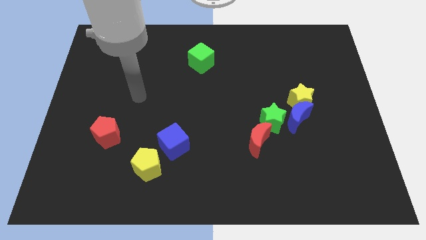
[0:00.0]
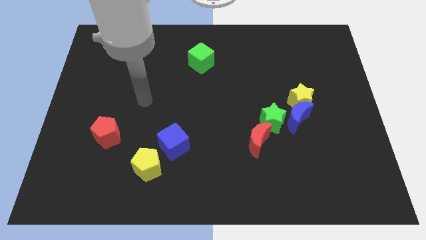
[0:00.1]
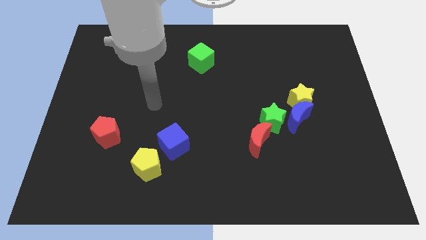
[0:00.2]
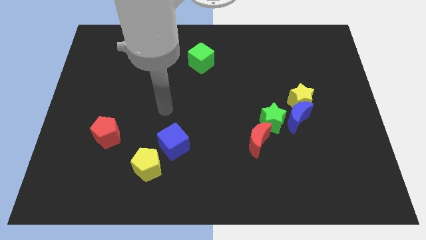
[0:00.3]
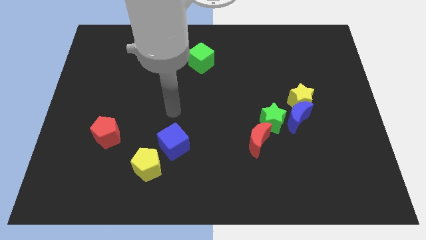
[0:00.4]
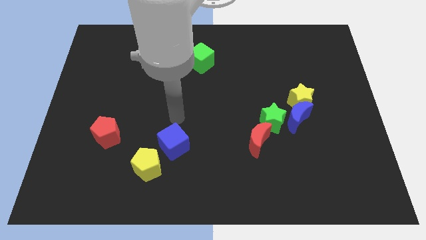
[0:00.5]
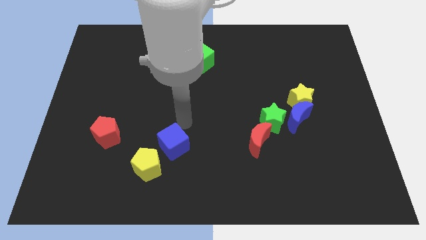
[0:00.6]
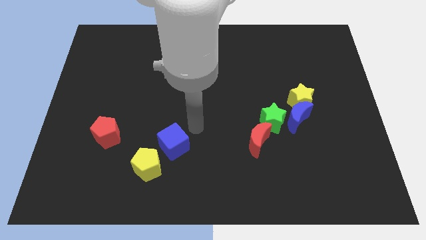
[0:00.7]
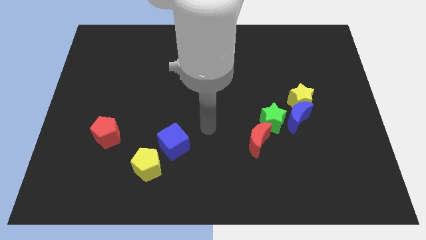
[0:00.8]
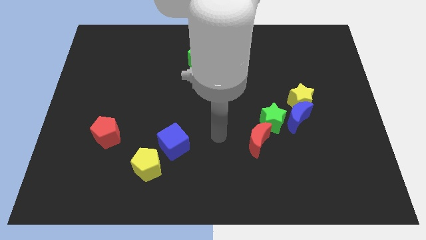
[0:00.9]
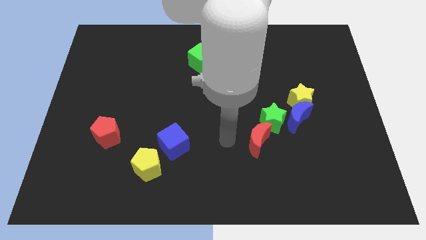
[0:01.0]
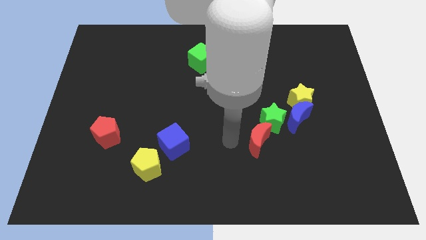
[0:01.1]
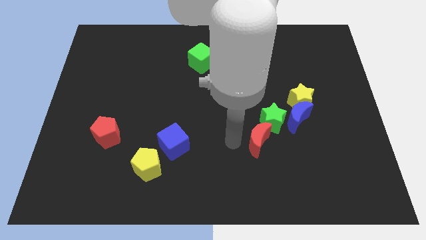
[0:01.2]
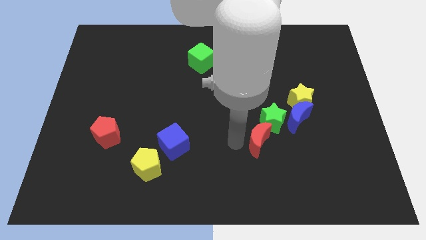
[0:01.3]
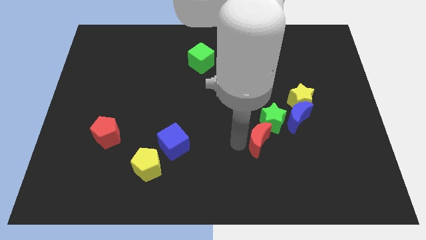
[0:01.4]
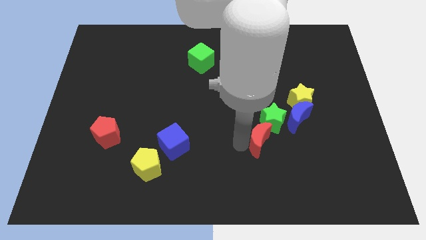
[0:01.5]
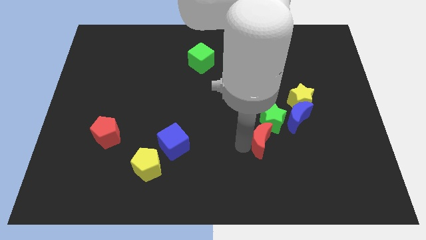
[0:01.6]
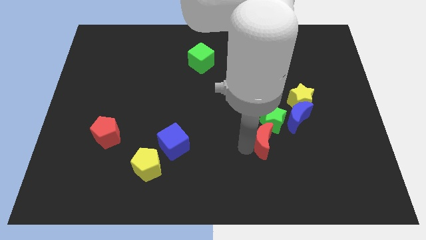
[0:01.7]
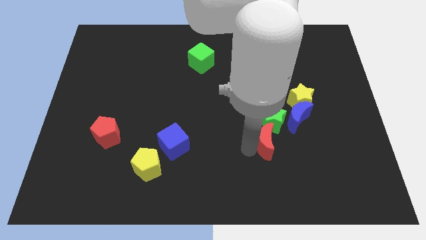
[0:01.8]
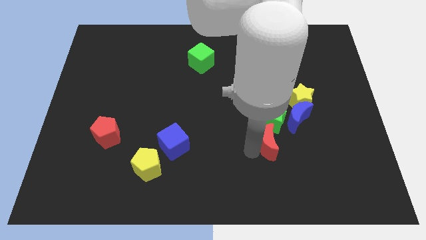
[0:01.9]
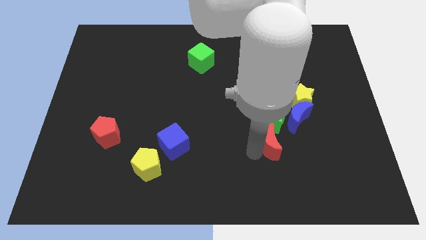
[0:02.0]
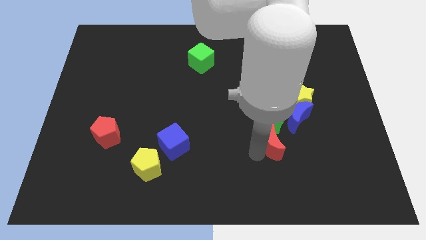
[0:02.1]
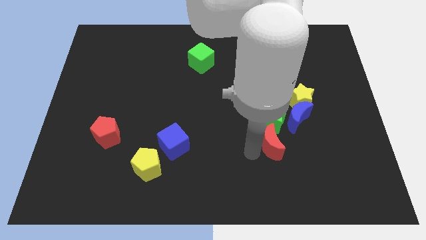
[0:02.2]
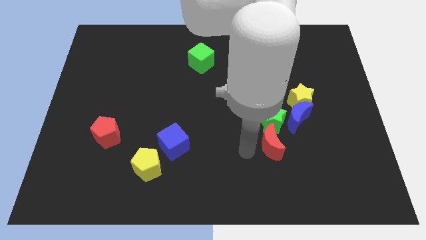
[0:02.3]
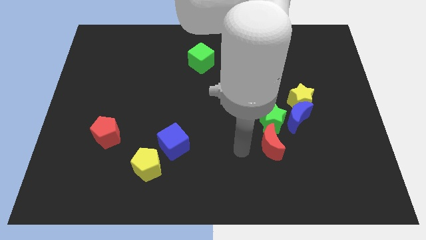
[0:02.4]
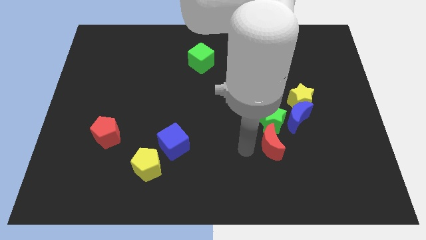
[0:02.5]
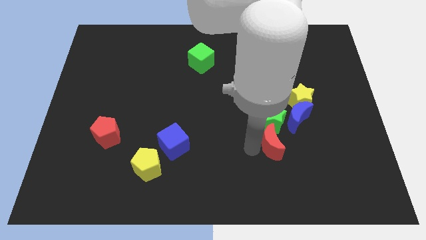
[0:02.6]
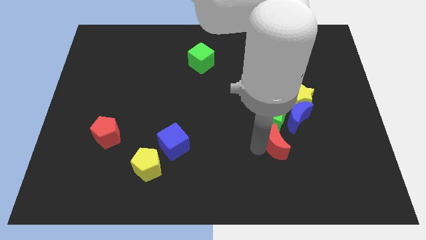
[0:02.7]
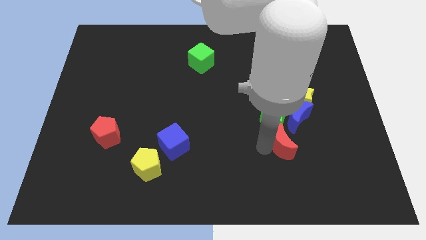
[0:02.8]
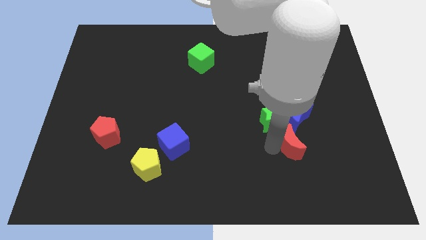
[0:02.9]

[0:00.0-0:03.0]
push the red moon right somewhat

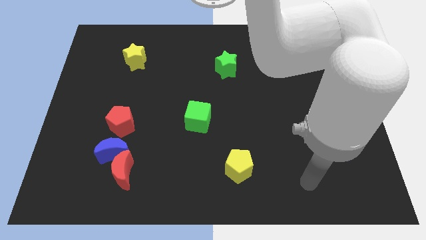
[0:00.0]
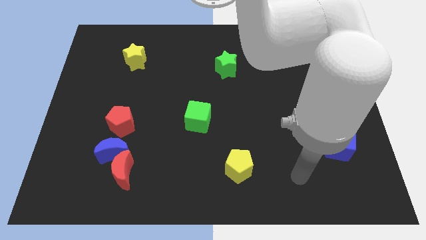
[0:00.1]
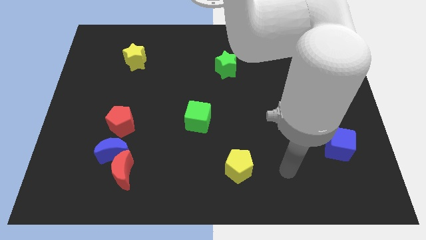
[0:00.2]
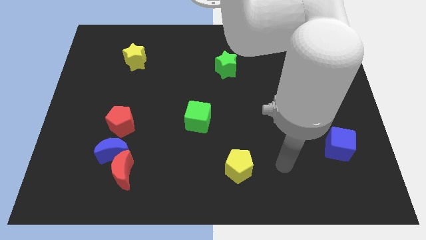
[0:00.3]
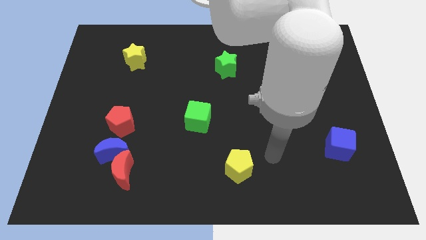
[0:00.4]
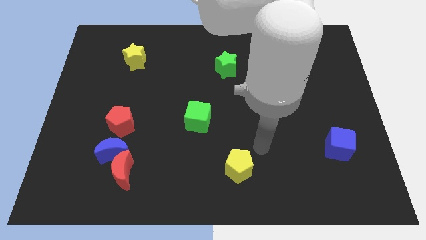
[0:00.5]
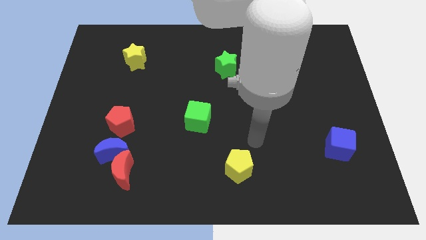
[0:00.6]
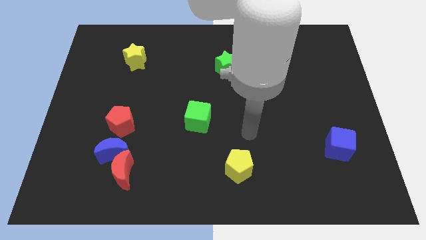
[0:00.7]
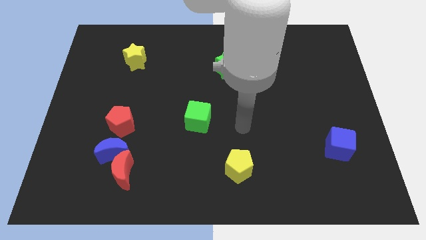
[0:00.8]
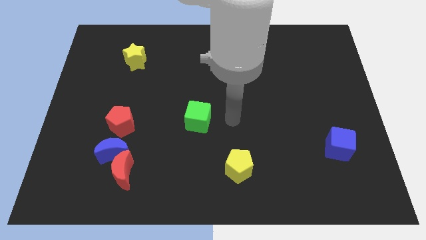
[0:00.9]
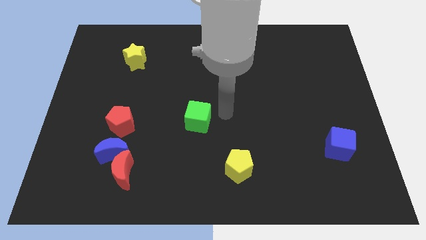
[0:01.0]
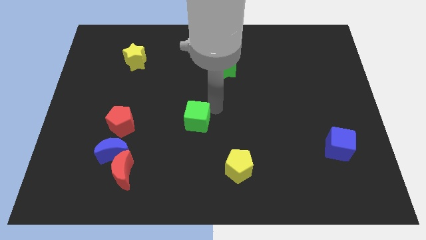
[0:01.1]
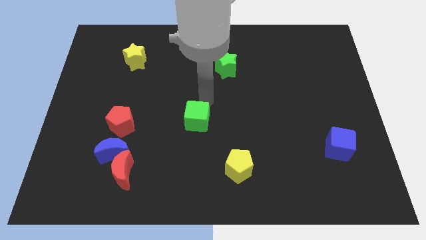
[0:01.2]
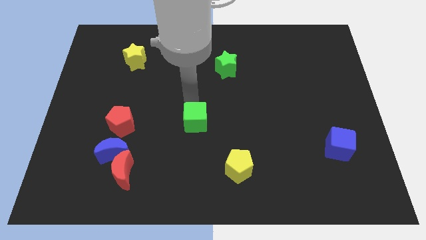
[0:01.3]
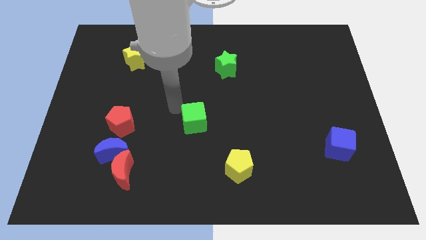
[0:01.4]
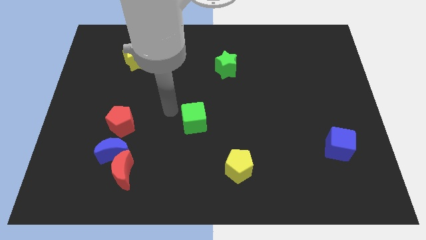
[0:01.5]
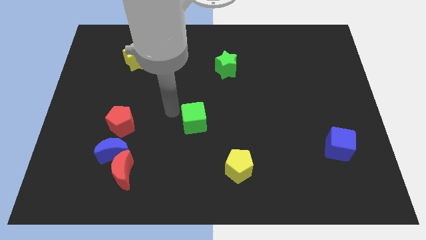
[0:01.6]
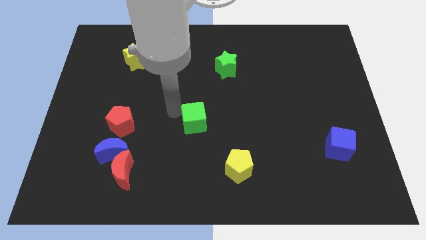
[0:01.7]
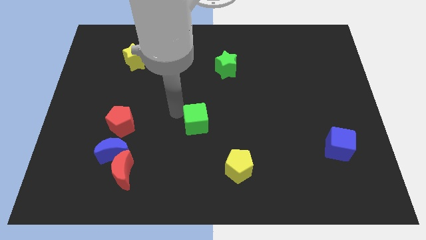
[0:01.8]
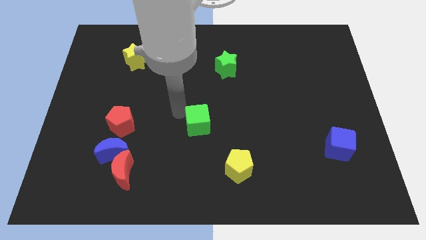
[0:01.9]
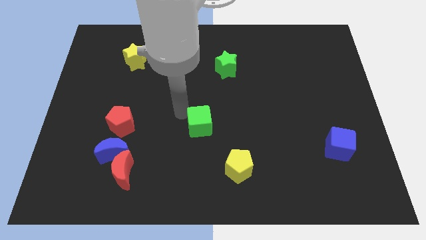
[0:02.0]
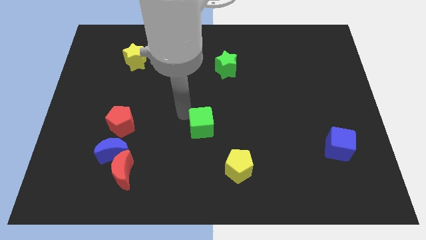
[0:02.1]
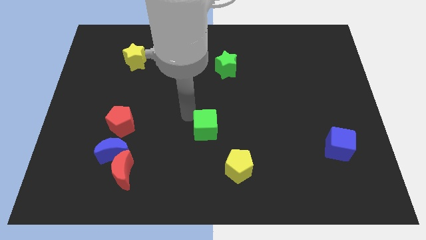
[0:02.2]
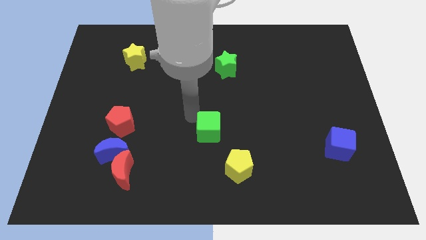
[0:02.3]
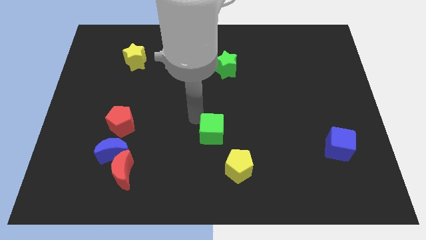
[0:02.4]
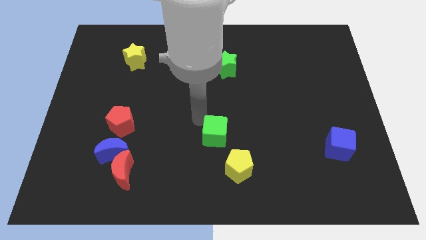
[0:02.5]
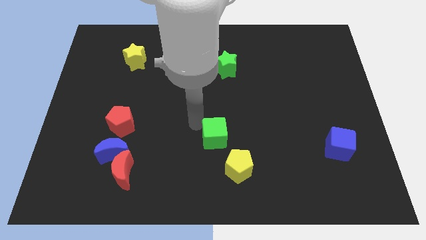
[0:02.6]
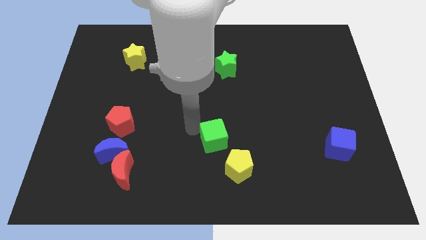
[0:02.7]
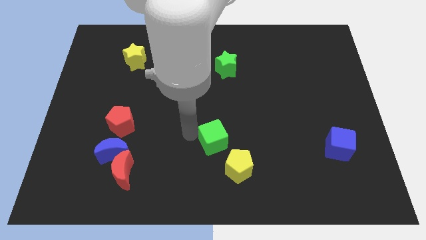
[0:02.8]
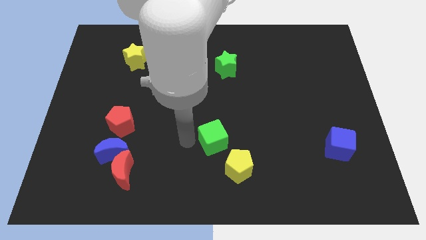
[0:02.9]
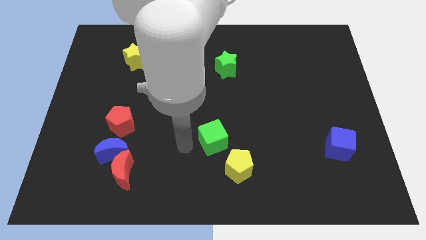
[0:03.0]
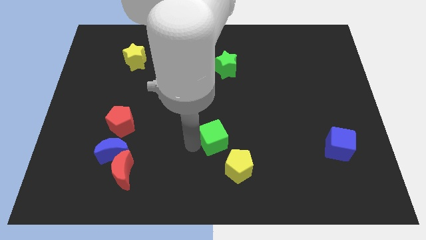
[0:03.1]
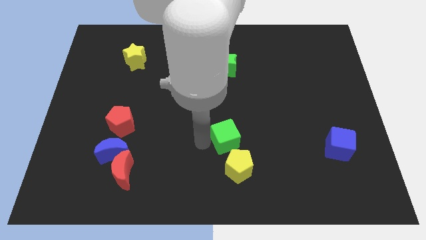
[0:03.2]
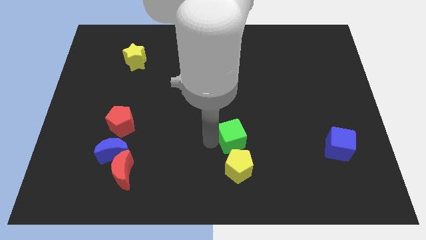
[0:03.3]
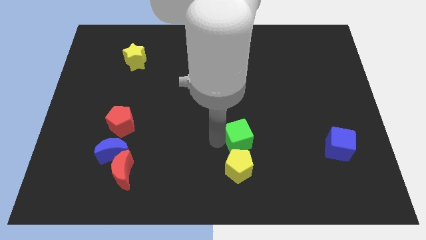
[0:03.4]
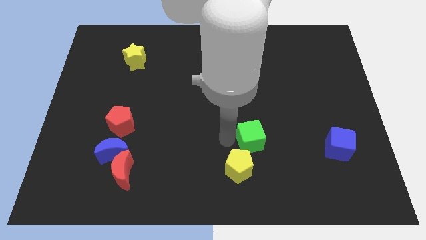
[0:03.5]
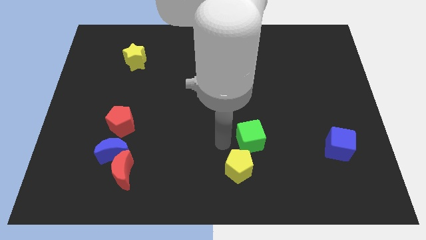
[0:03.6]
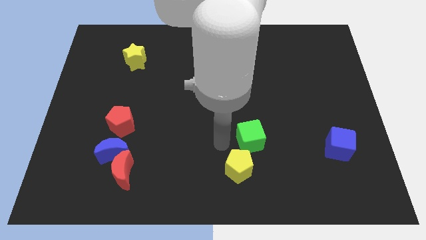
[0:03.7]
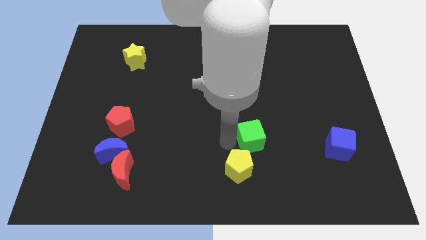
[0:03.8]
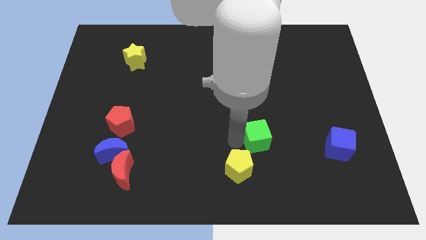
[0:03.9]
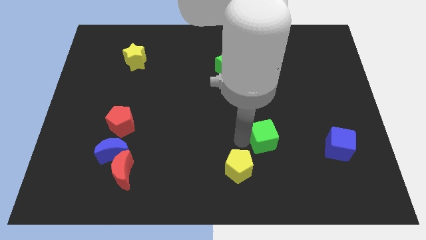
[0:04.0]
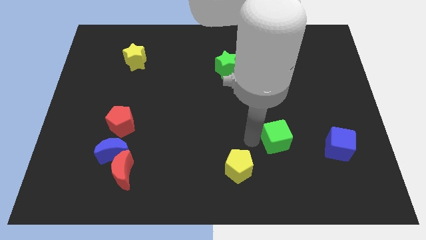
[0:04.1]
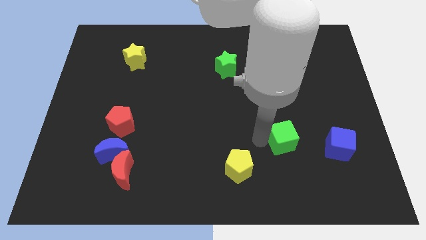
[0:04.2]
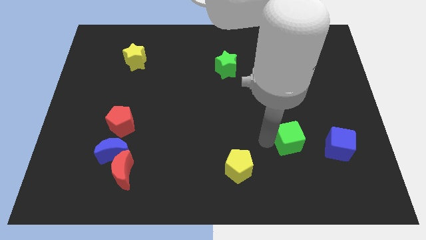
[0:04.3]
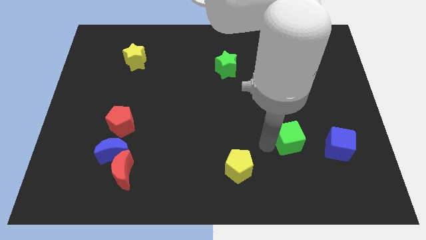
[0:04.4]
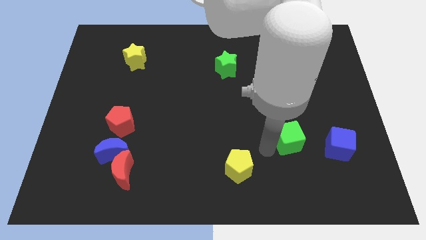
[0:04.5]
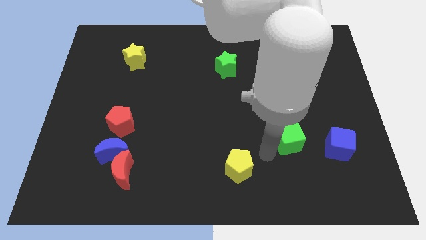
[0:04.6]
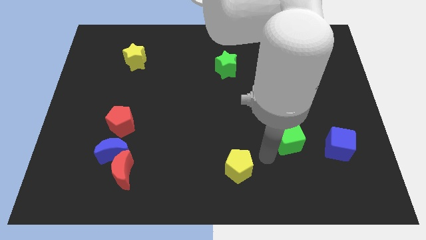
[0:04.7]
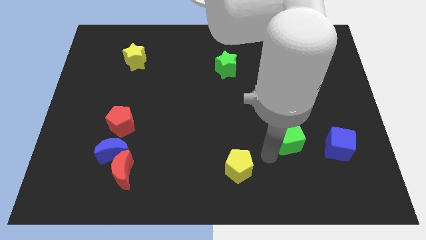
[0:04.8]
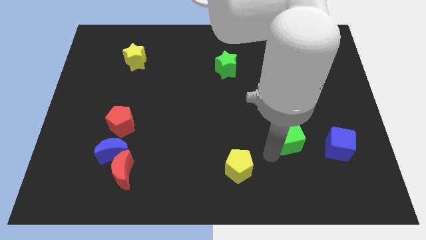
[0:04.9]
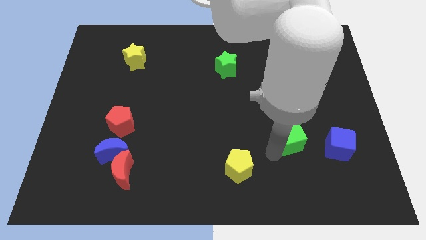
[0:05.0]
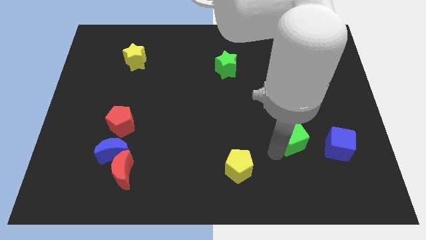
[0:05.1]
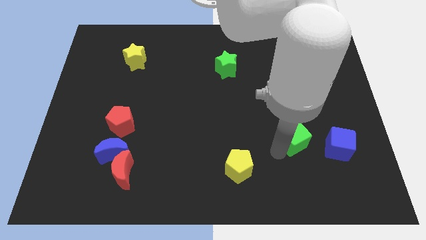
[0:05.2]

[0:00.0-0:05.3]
push the green cube right
